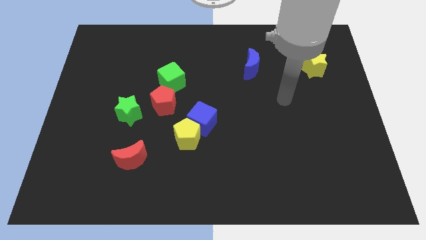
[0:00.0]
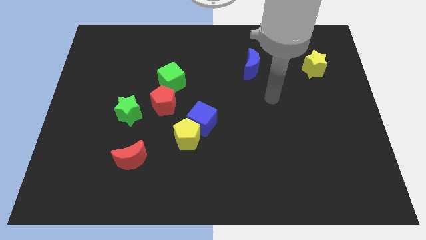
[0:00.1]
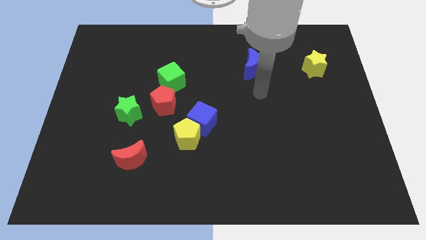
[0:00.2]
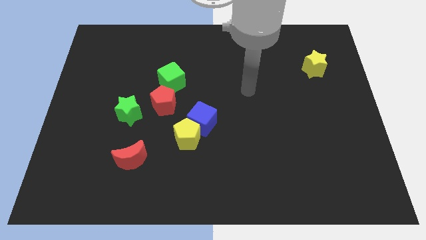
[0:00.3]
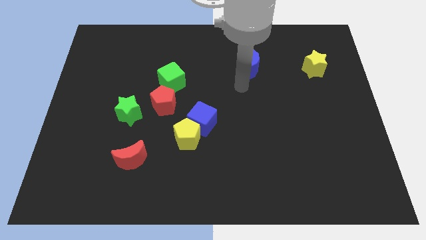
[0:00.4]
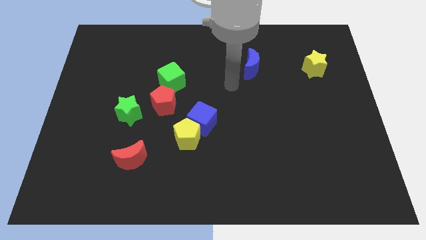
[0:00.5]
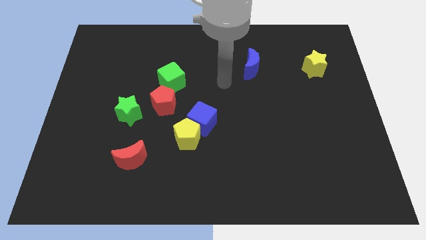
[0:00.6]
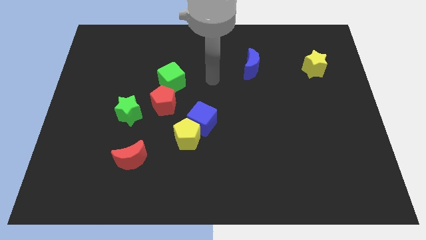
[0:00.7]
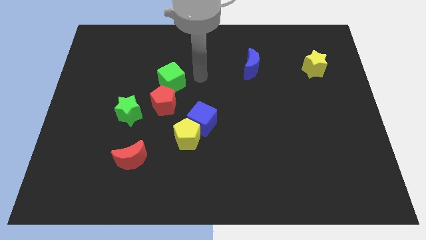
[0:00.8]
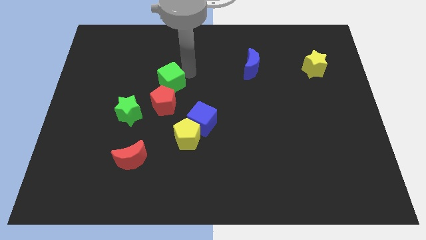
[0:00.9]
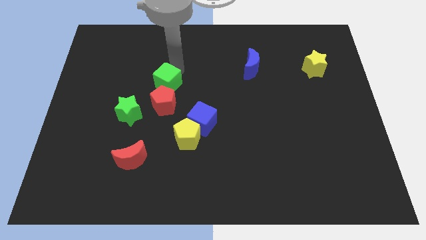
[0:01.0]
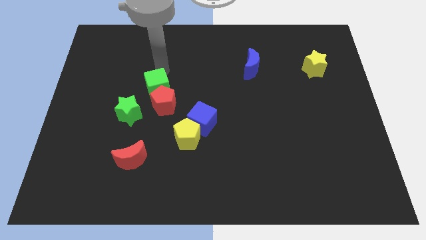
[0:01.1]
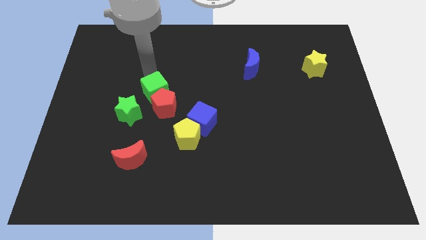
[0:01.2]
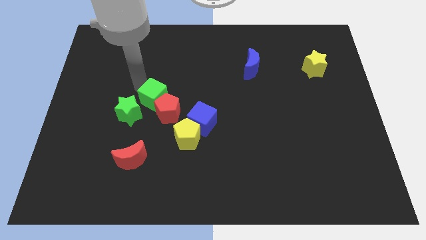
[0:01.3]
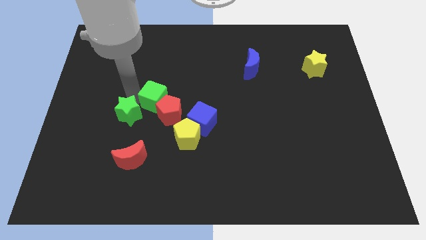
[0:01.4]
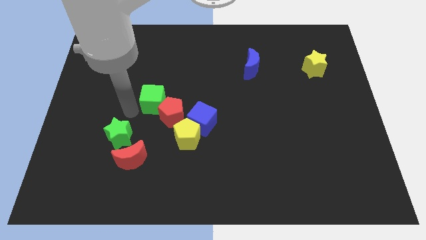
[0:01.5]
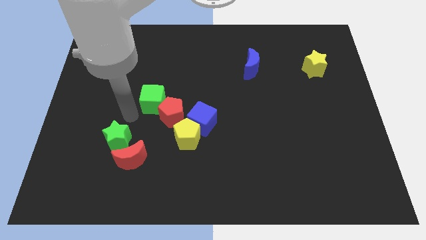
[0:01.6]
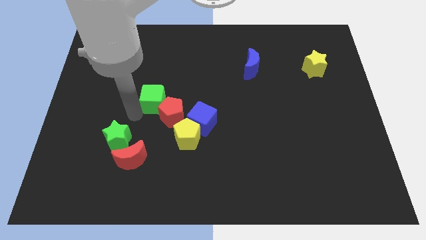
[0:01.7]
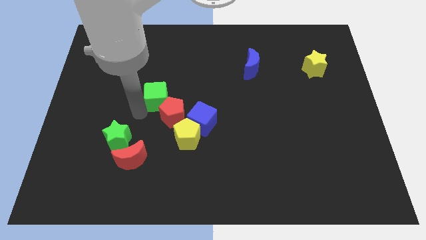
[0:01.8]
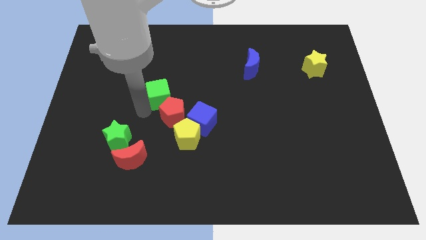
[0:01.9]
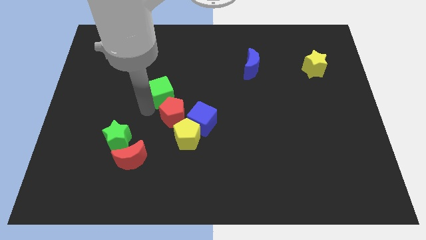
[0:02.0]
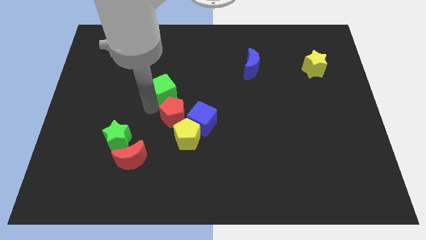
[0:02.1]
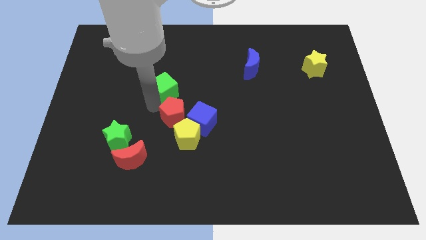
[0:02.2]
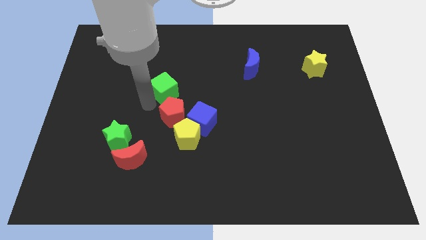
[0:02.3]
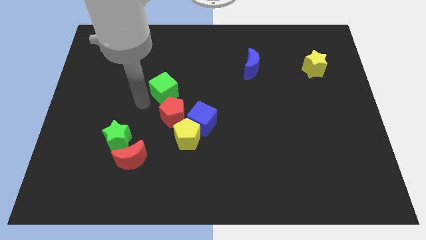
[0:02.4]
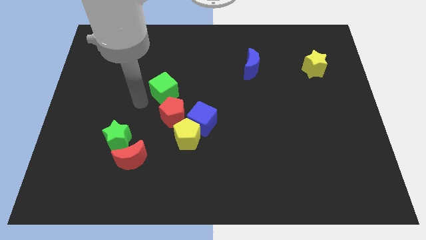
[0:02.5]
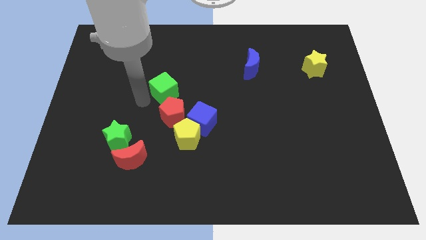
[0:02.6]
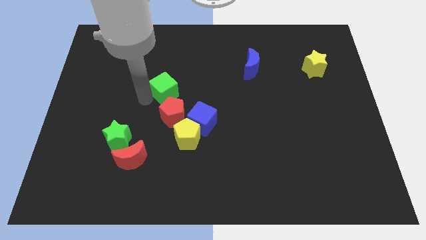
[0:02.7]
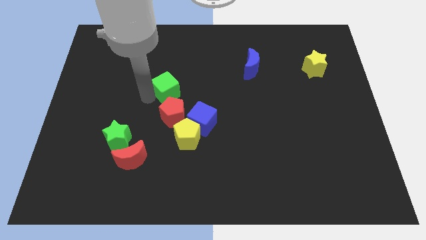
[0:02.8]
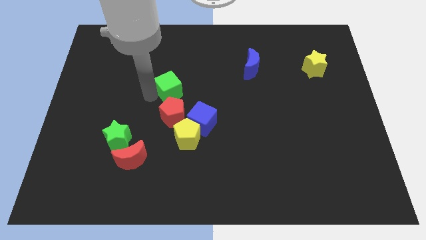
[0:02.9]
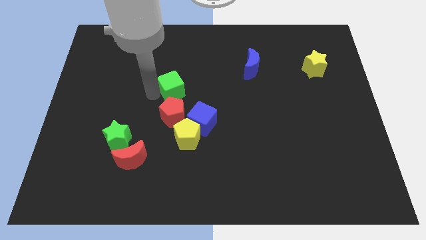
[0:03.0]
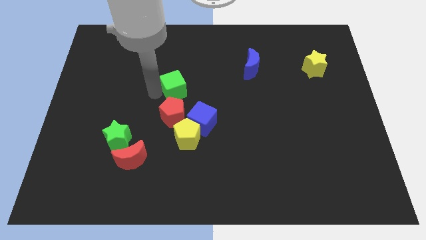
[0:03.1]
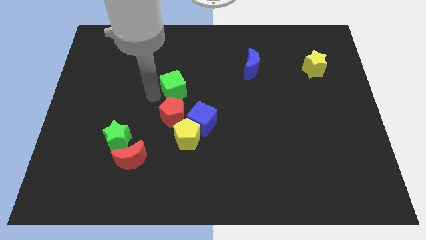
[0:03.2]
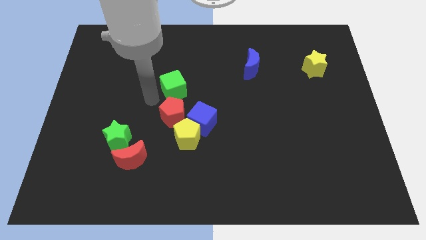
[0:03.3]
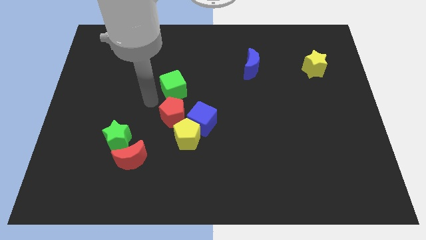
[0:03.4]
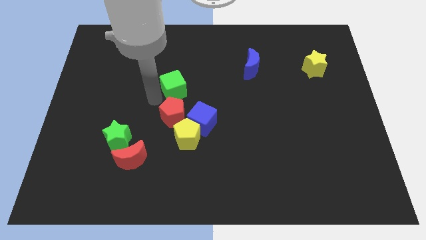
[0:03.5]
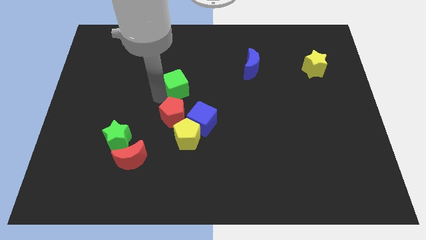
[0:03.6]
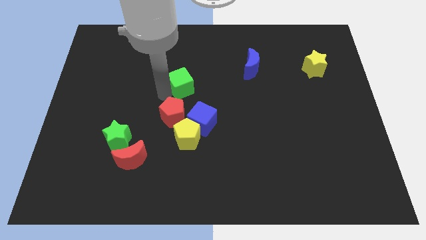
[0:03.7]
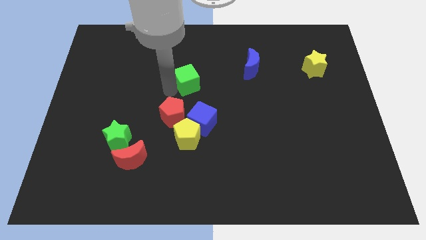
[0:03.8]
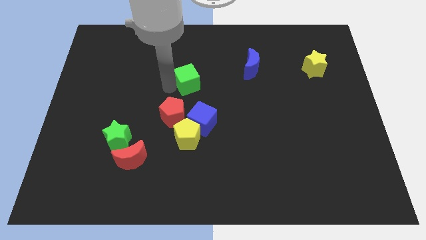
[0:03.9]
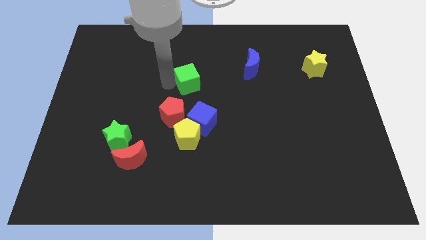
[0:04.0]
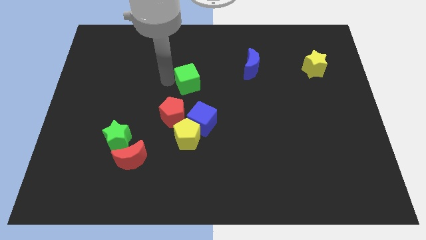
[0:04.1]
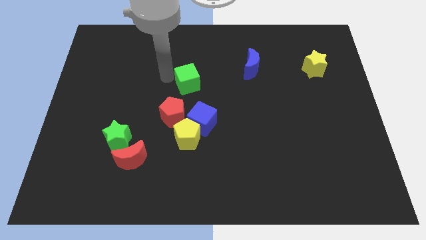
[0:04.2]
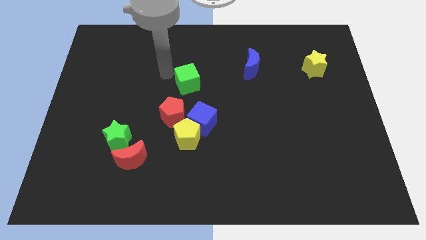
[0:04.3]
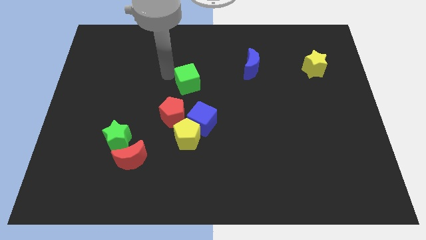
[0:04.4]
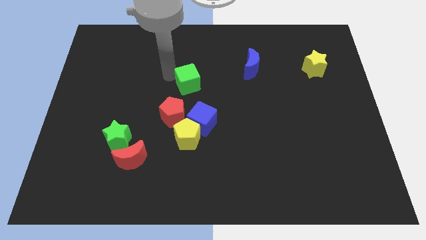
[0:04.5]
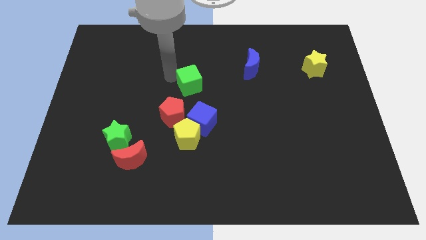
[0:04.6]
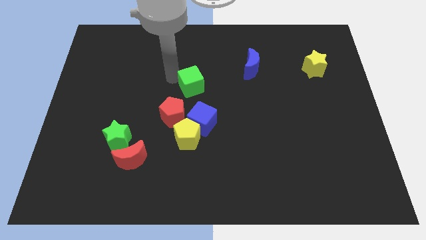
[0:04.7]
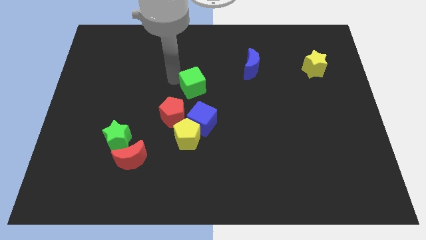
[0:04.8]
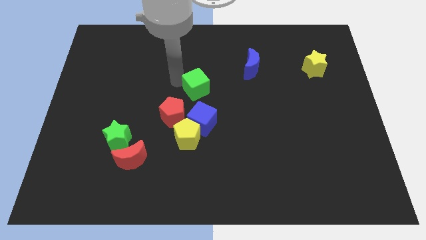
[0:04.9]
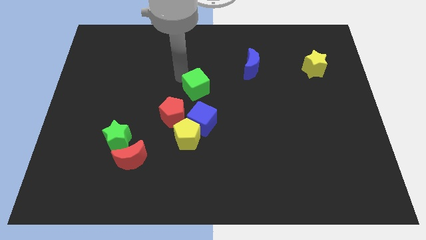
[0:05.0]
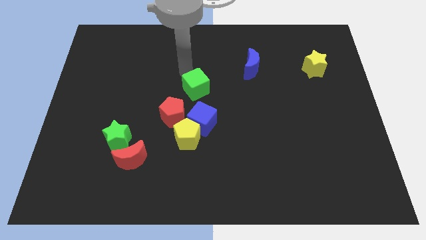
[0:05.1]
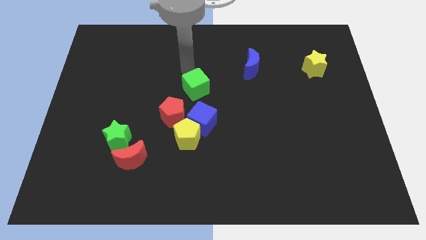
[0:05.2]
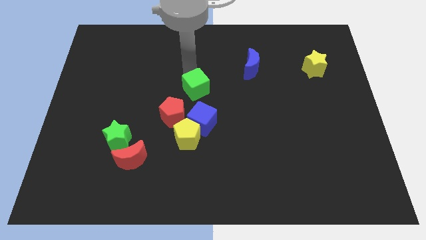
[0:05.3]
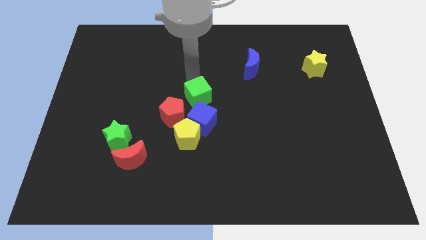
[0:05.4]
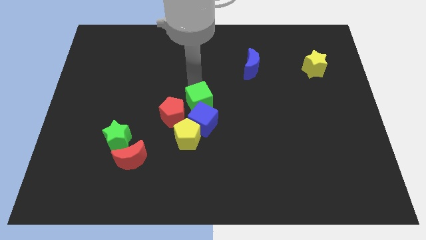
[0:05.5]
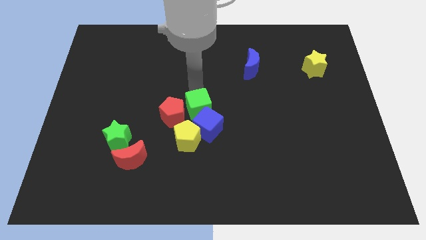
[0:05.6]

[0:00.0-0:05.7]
move the green cube to the top right of the yellow pentagon

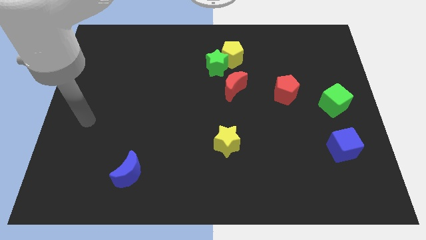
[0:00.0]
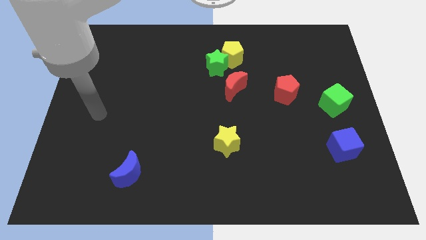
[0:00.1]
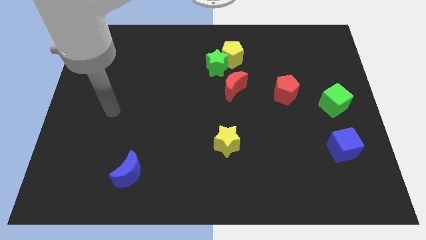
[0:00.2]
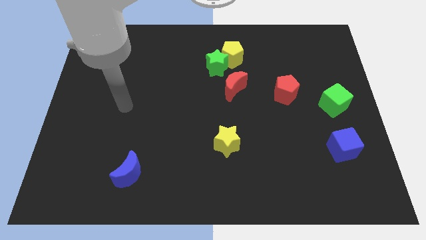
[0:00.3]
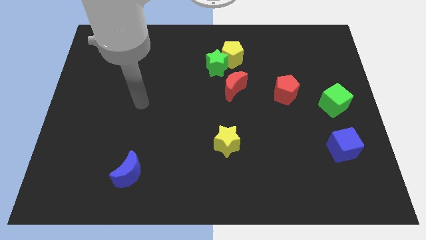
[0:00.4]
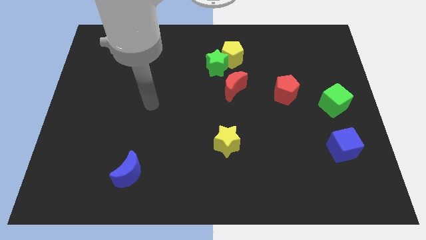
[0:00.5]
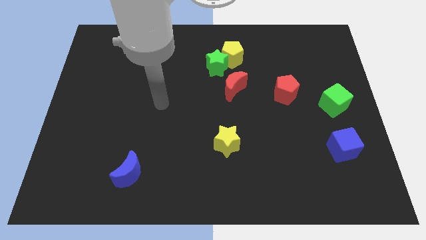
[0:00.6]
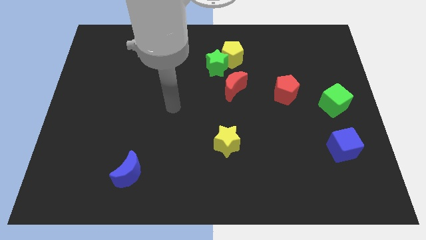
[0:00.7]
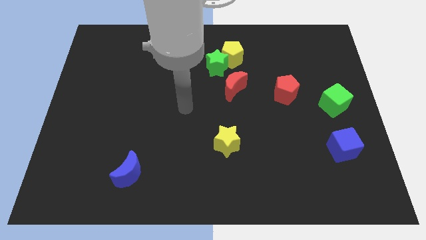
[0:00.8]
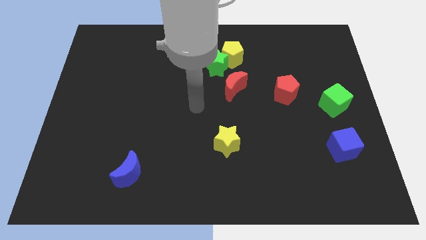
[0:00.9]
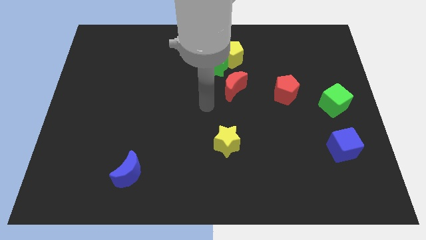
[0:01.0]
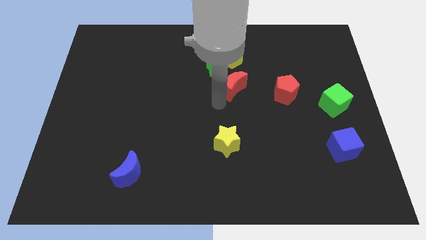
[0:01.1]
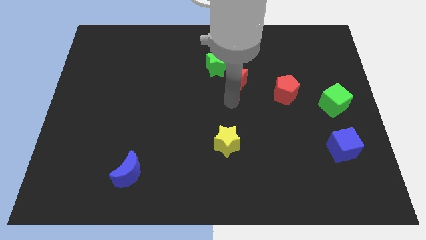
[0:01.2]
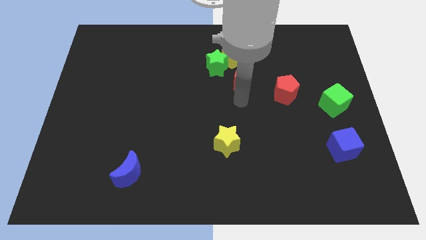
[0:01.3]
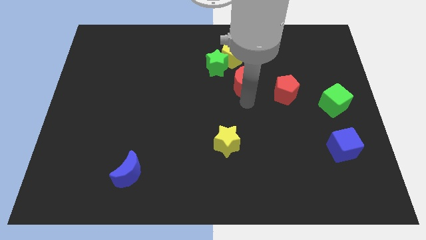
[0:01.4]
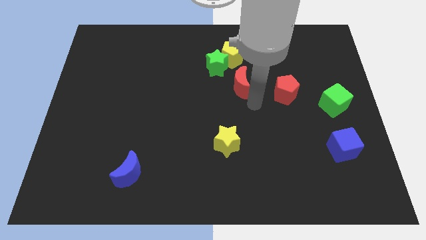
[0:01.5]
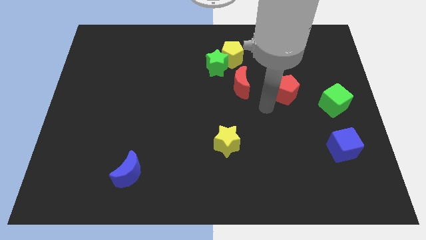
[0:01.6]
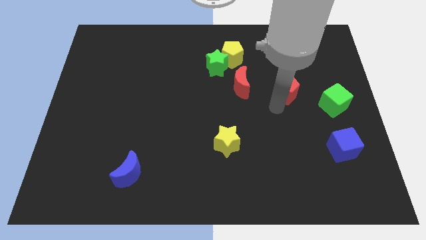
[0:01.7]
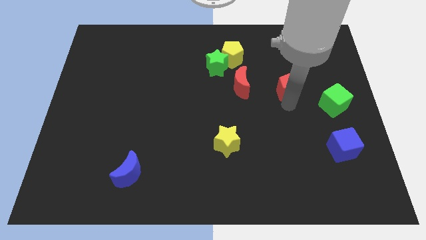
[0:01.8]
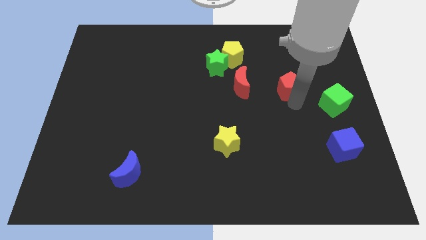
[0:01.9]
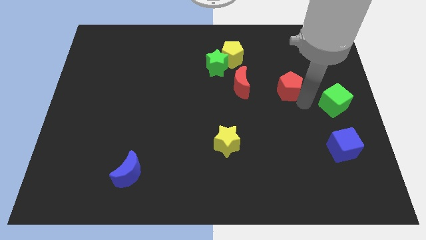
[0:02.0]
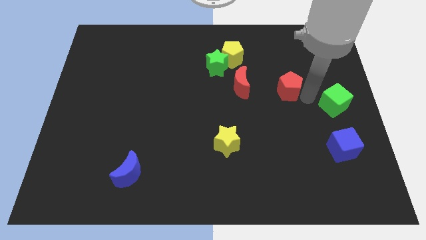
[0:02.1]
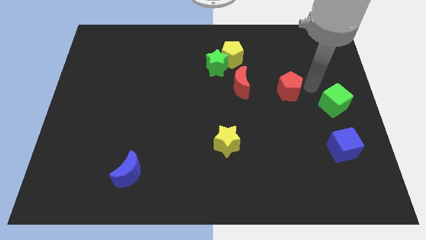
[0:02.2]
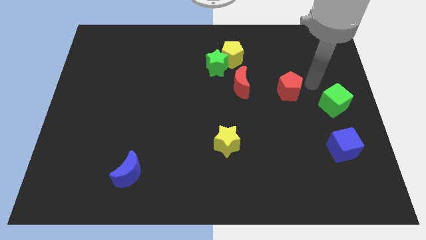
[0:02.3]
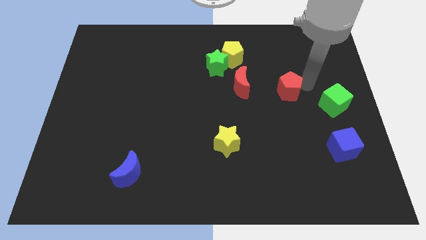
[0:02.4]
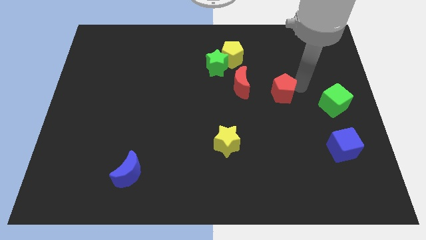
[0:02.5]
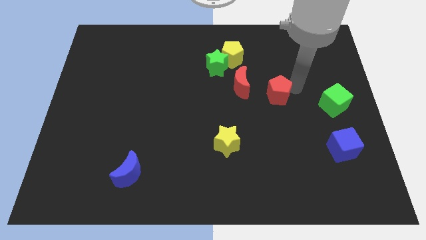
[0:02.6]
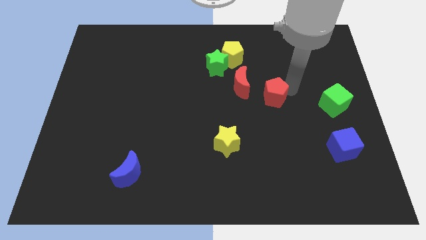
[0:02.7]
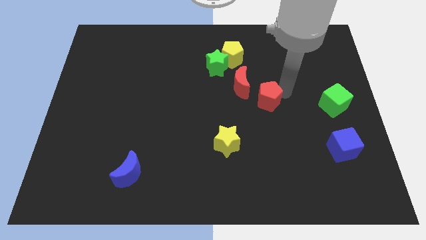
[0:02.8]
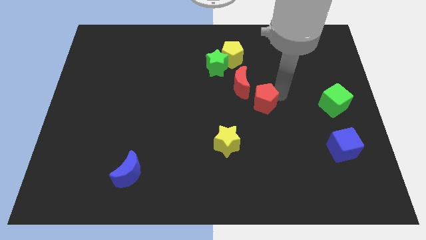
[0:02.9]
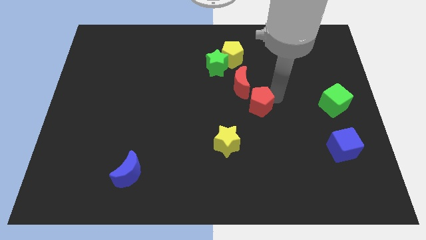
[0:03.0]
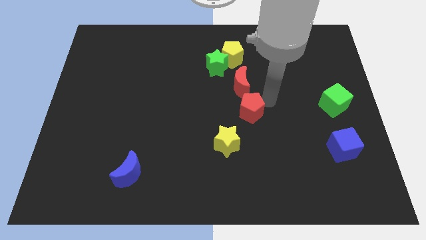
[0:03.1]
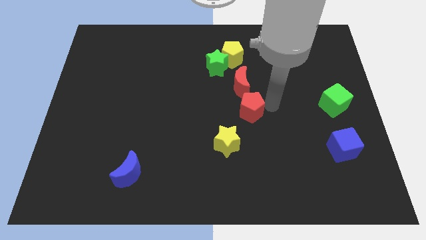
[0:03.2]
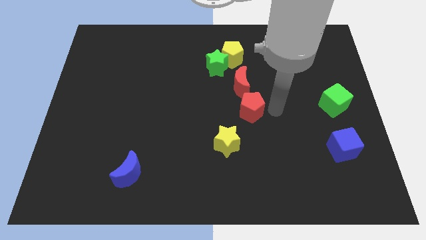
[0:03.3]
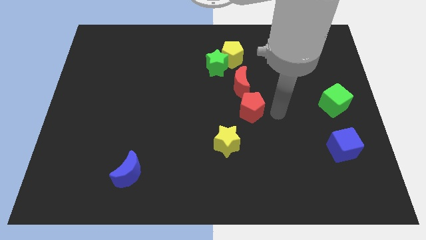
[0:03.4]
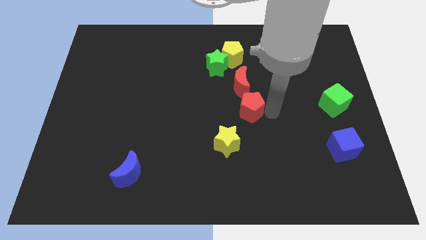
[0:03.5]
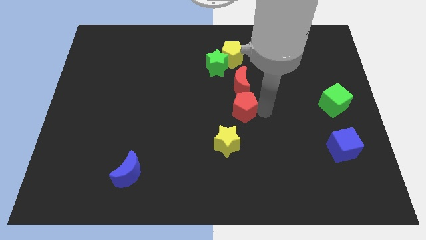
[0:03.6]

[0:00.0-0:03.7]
move the red pentagon to the top side of the yellow star
